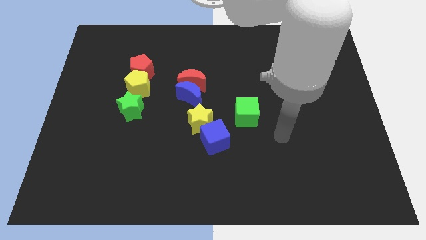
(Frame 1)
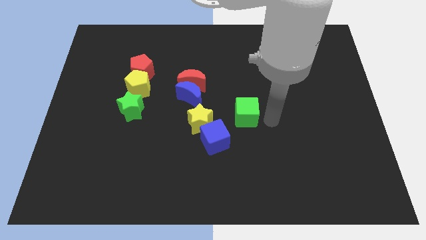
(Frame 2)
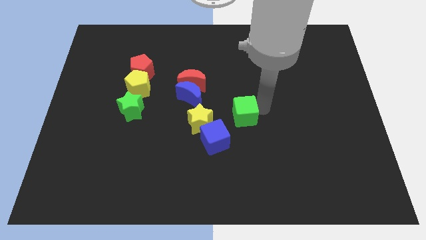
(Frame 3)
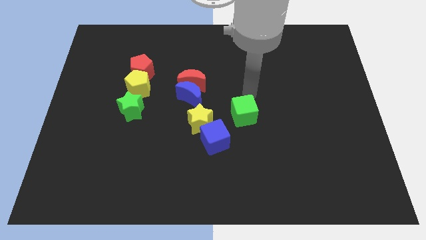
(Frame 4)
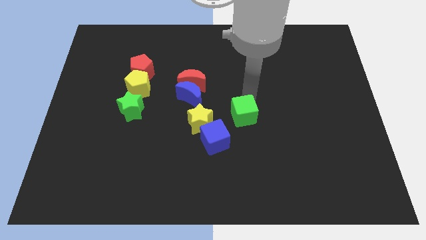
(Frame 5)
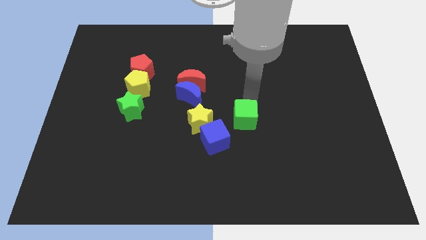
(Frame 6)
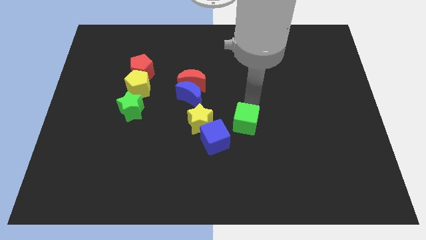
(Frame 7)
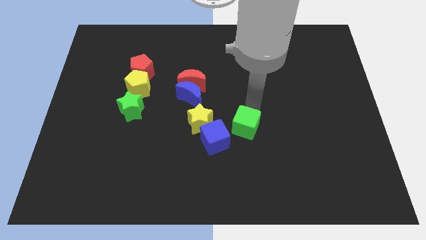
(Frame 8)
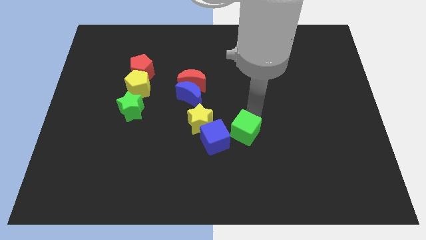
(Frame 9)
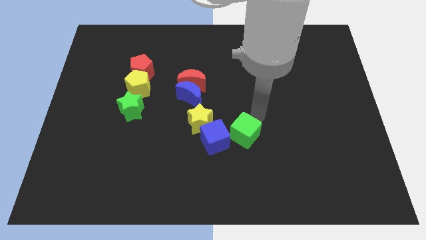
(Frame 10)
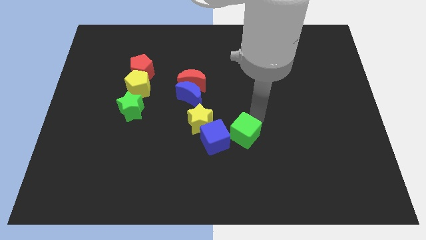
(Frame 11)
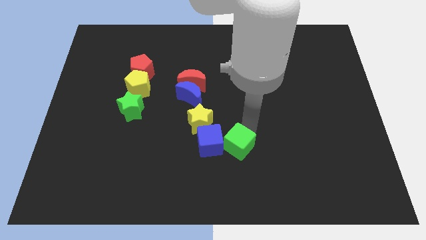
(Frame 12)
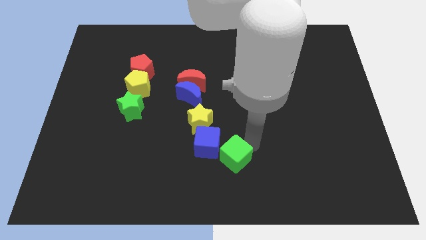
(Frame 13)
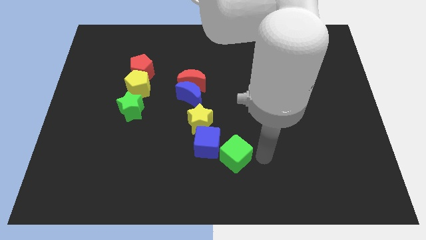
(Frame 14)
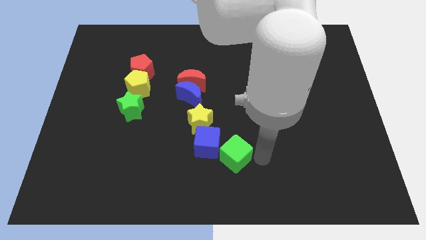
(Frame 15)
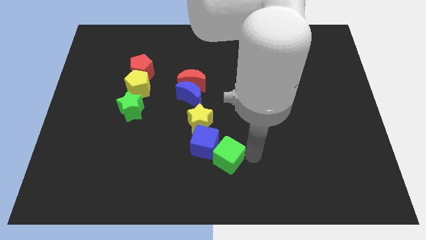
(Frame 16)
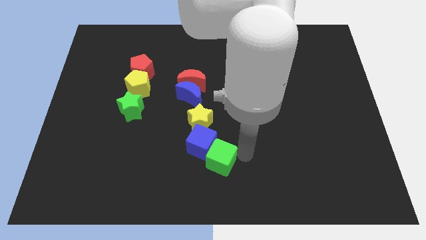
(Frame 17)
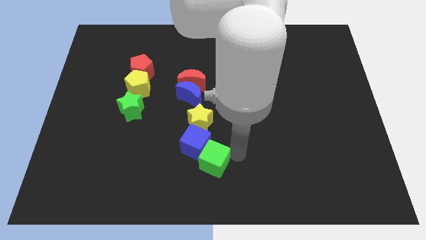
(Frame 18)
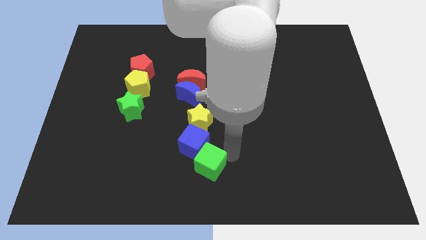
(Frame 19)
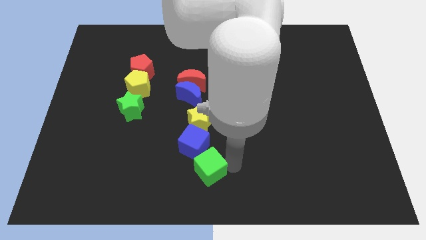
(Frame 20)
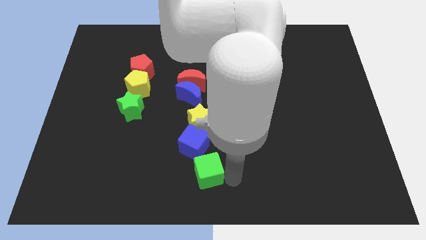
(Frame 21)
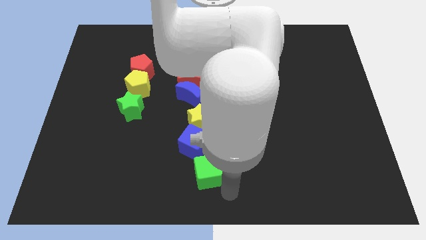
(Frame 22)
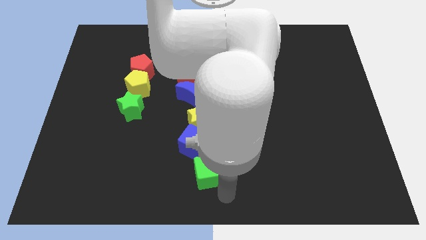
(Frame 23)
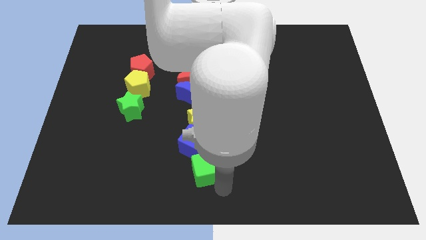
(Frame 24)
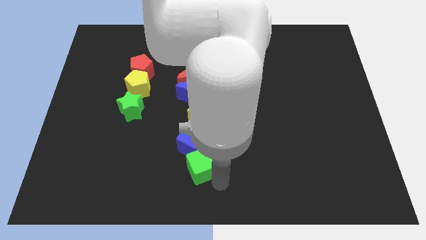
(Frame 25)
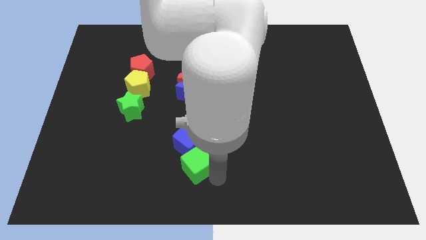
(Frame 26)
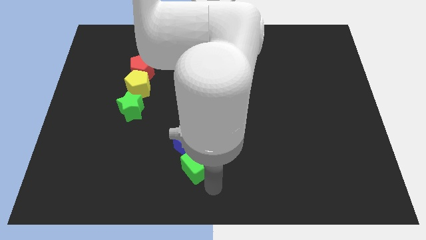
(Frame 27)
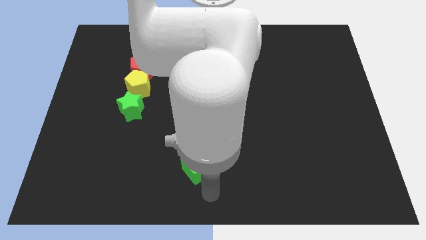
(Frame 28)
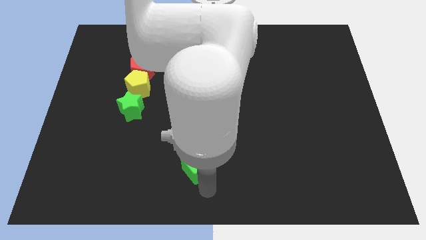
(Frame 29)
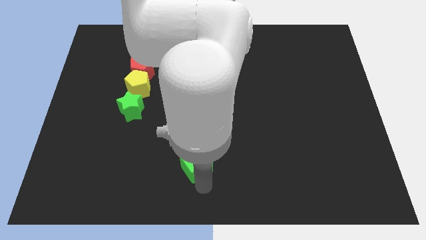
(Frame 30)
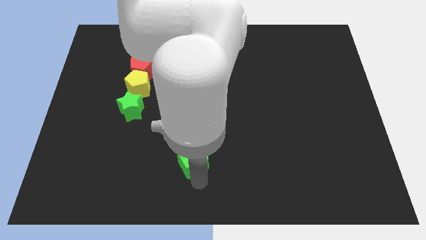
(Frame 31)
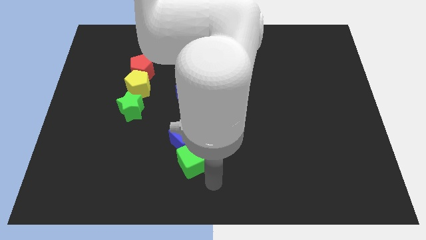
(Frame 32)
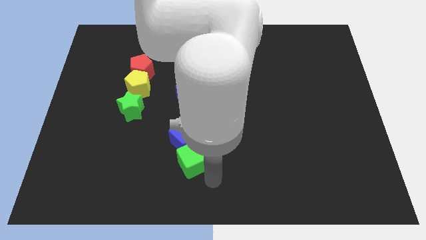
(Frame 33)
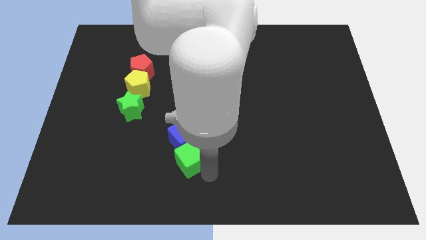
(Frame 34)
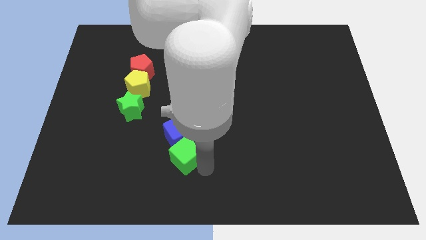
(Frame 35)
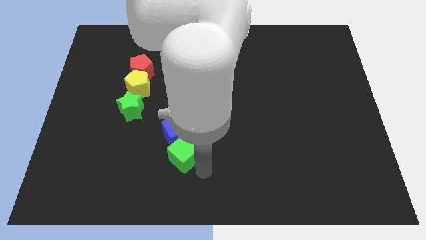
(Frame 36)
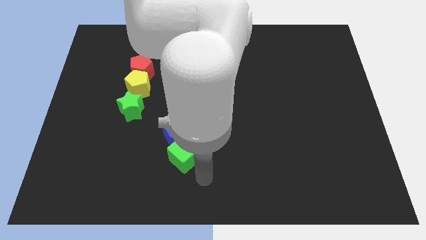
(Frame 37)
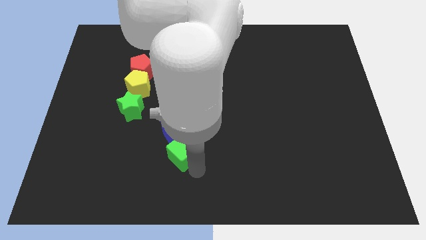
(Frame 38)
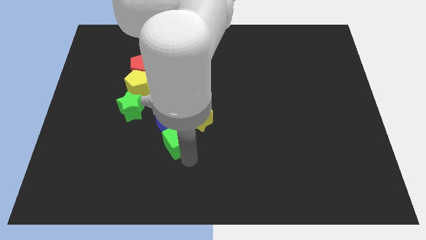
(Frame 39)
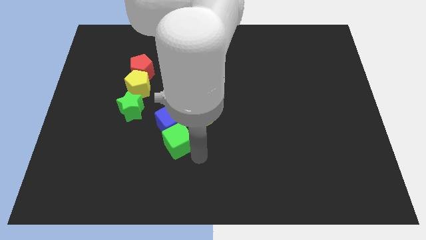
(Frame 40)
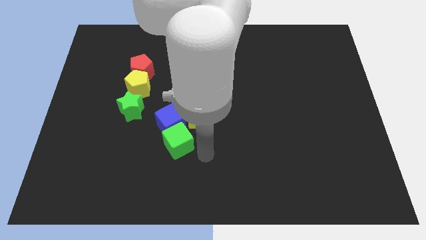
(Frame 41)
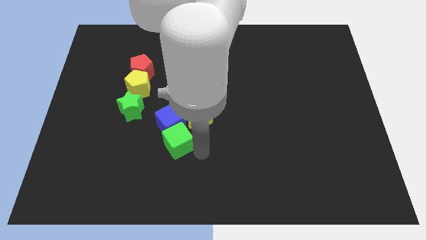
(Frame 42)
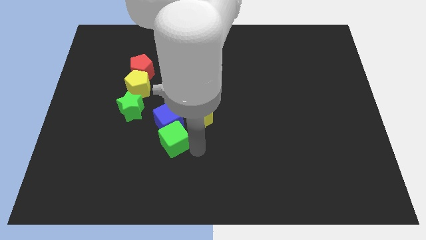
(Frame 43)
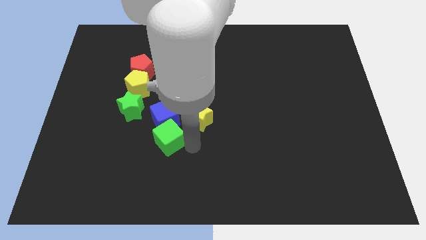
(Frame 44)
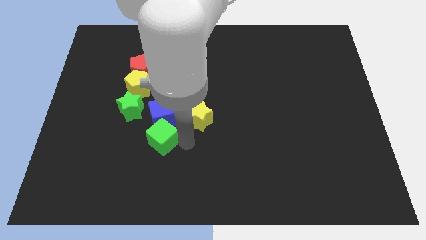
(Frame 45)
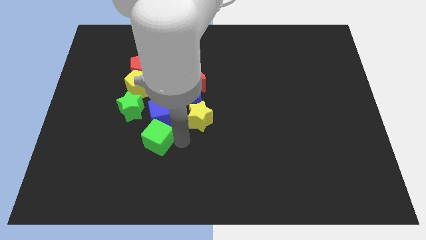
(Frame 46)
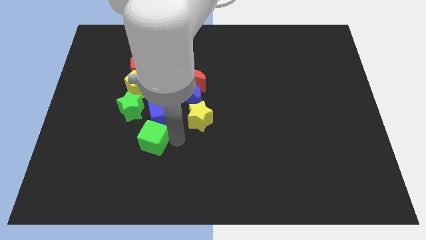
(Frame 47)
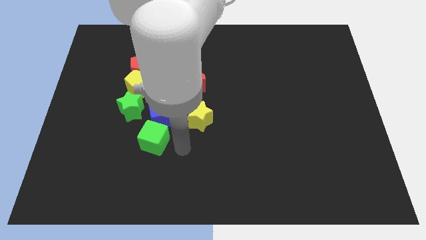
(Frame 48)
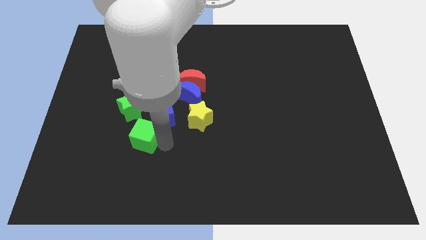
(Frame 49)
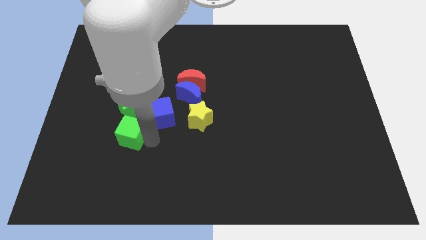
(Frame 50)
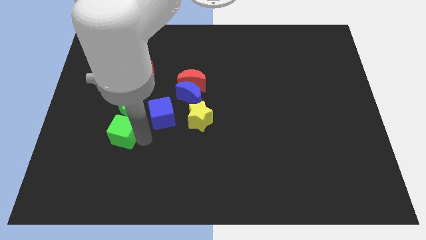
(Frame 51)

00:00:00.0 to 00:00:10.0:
slide the green cube to the bottom left of the green star

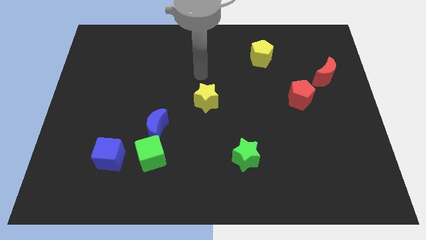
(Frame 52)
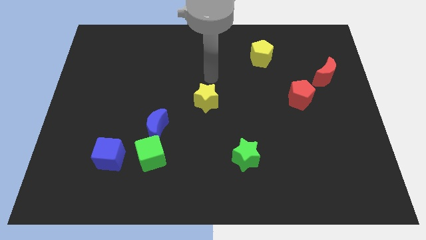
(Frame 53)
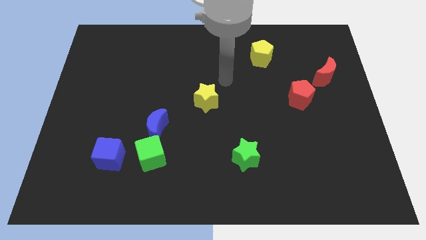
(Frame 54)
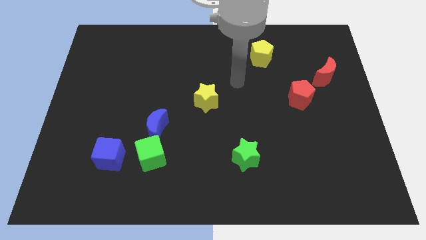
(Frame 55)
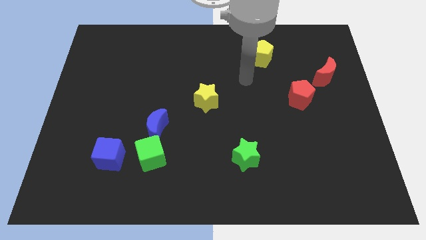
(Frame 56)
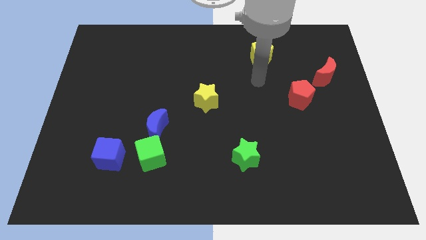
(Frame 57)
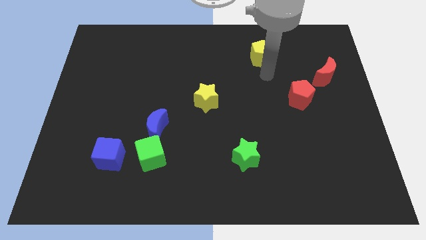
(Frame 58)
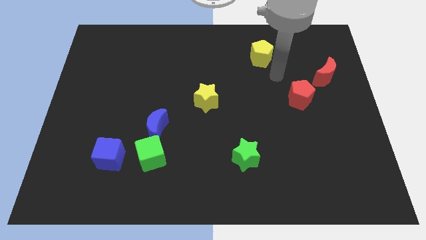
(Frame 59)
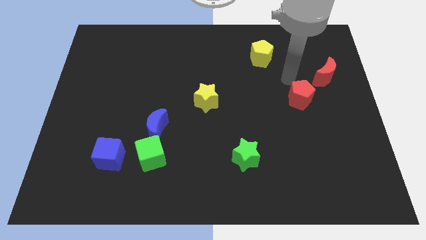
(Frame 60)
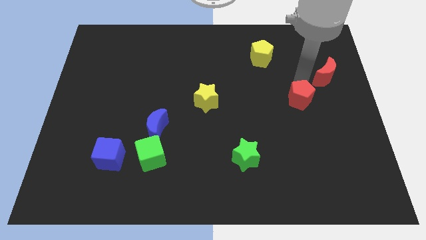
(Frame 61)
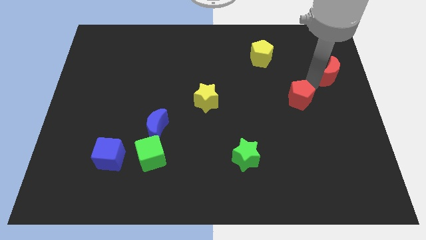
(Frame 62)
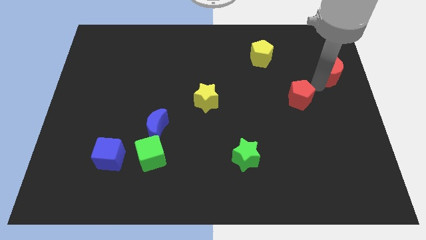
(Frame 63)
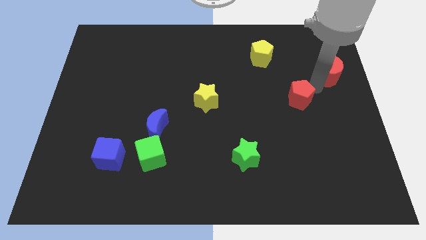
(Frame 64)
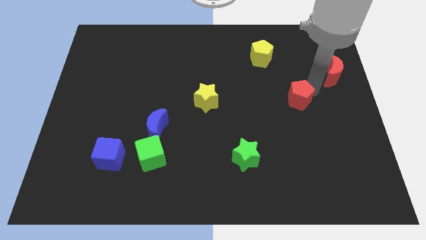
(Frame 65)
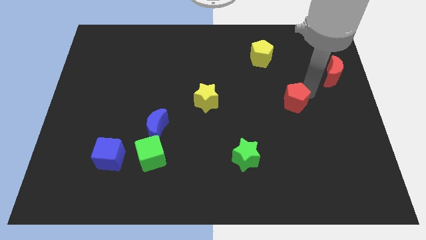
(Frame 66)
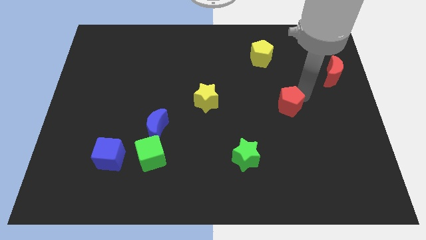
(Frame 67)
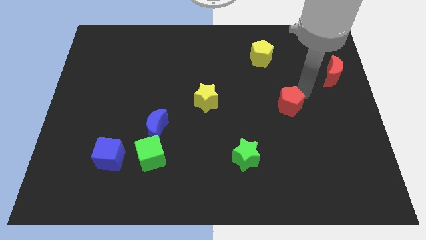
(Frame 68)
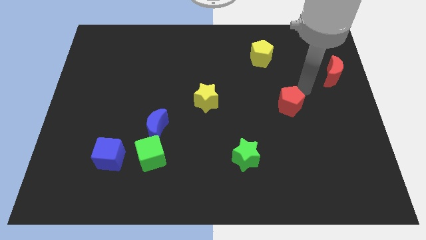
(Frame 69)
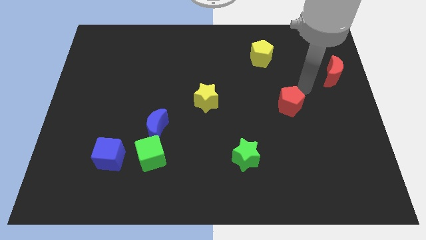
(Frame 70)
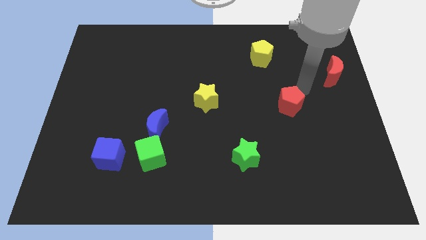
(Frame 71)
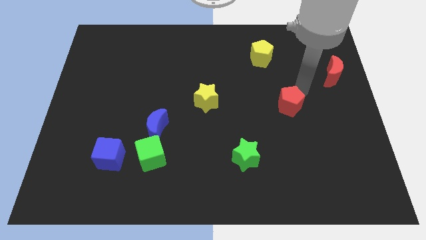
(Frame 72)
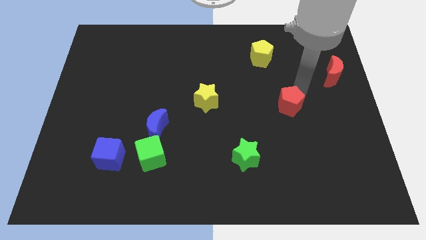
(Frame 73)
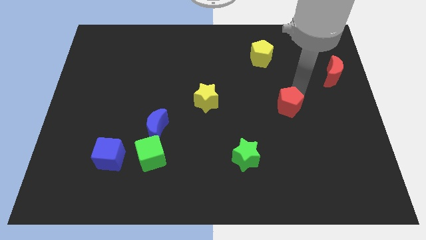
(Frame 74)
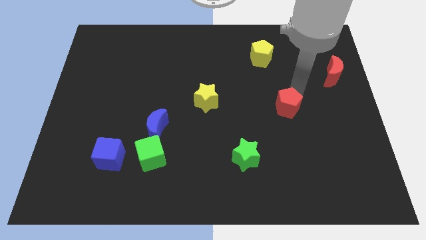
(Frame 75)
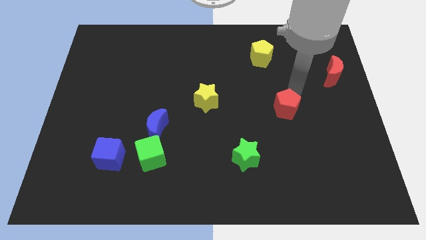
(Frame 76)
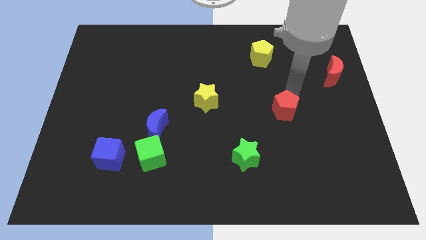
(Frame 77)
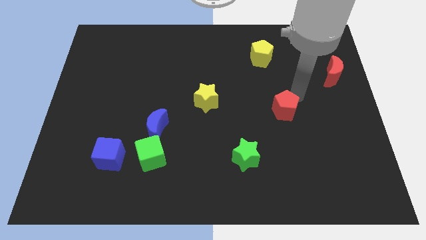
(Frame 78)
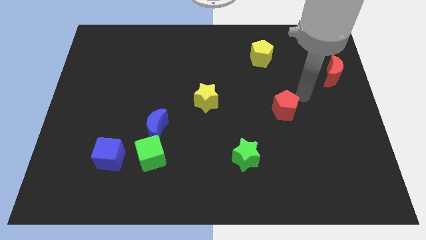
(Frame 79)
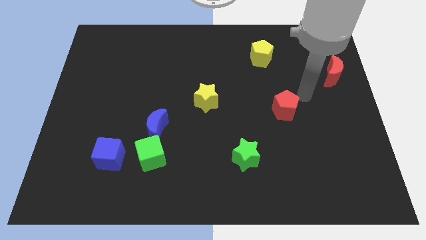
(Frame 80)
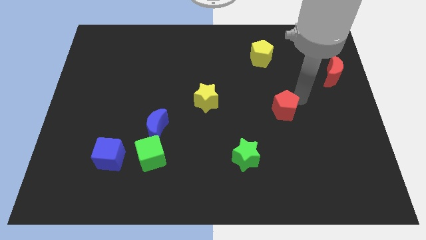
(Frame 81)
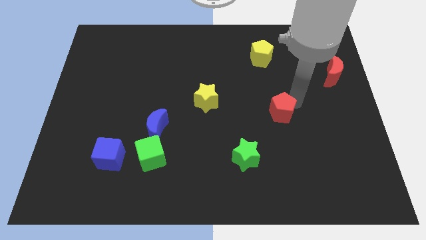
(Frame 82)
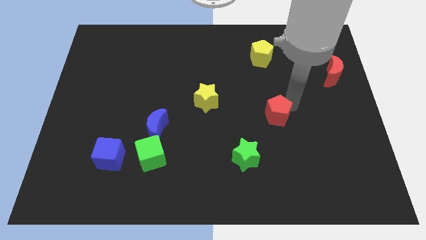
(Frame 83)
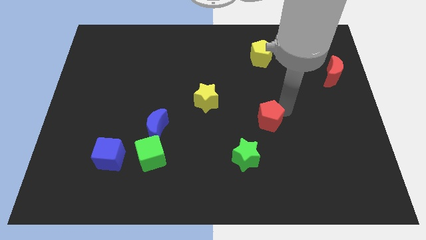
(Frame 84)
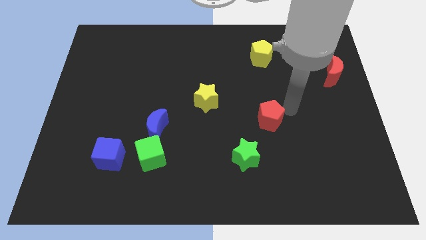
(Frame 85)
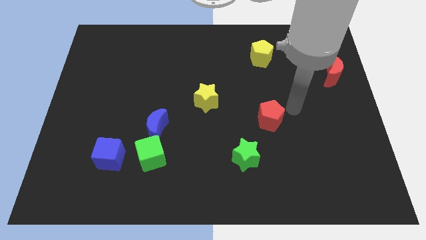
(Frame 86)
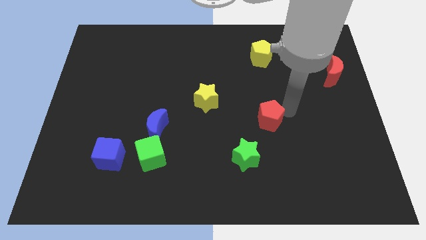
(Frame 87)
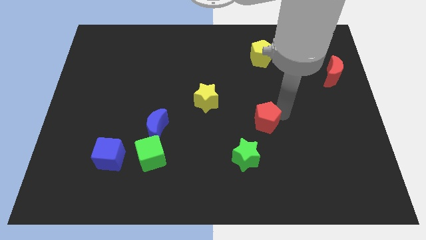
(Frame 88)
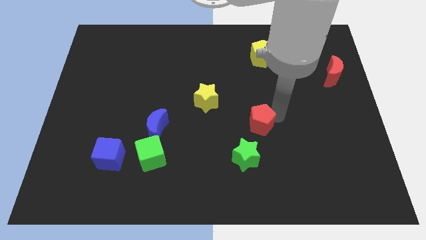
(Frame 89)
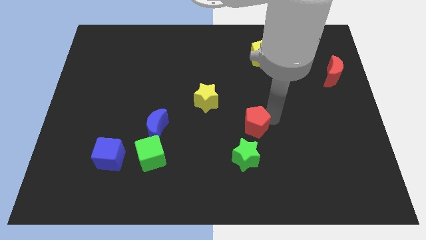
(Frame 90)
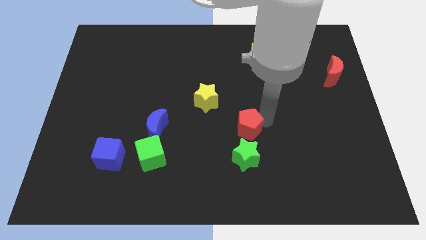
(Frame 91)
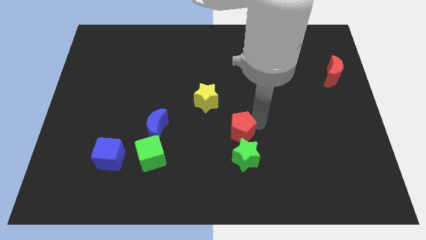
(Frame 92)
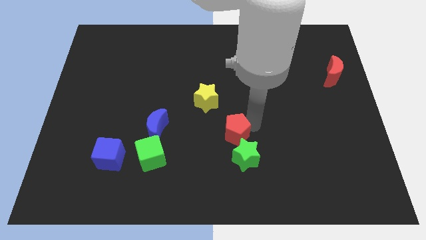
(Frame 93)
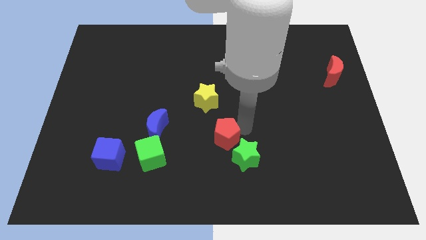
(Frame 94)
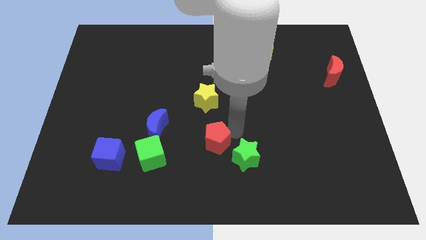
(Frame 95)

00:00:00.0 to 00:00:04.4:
slide the red pentagon to the right of the green cube
